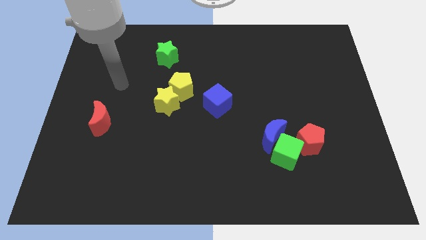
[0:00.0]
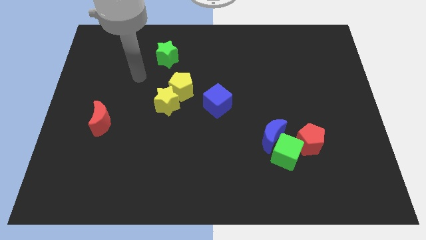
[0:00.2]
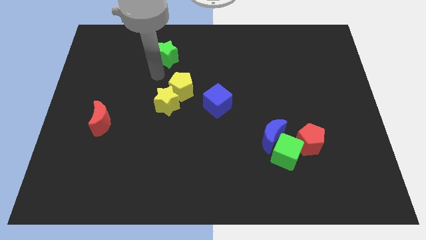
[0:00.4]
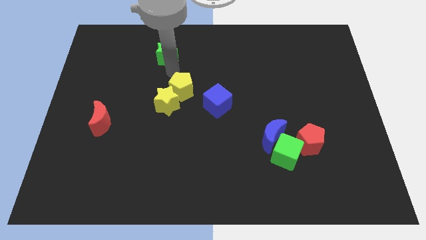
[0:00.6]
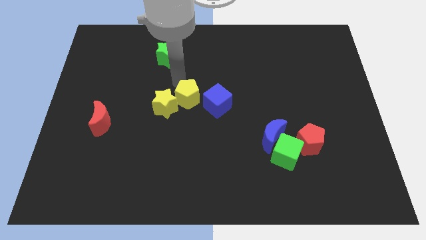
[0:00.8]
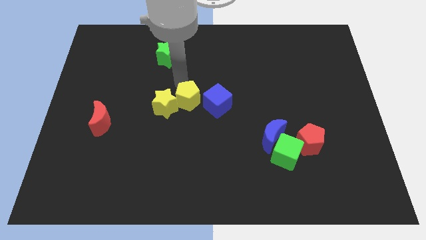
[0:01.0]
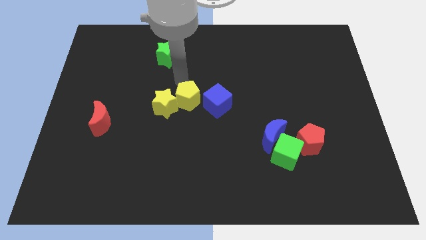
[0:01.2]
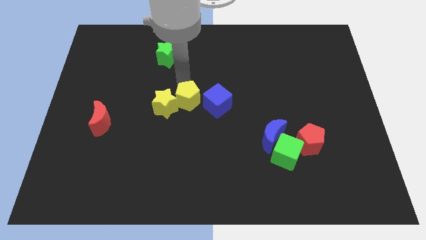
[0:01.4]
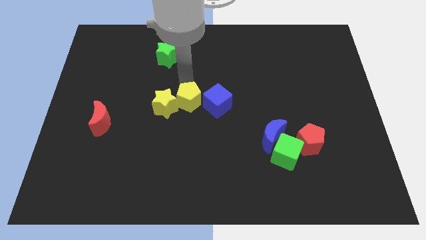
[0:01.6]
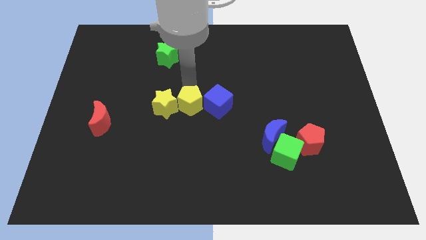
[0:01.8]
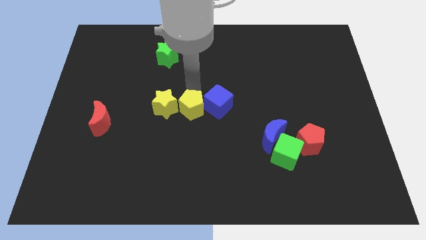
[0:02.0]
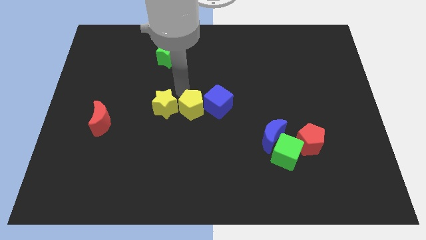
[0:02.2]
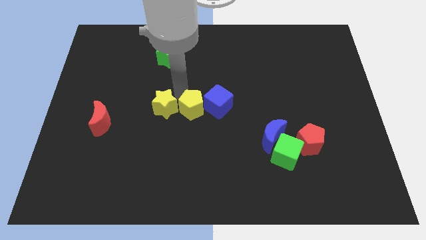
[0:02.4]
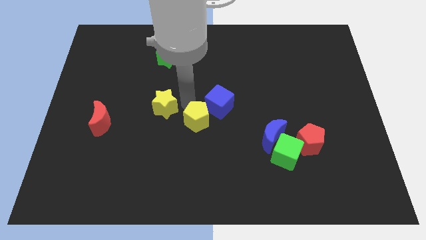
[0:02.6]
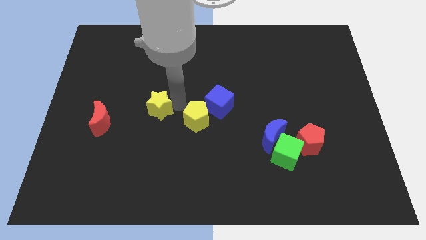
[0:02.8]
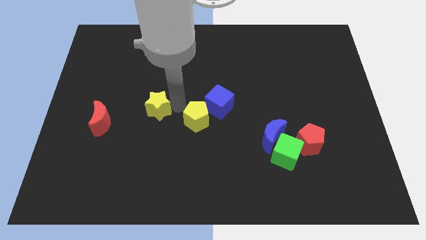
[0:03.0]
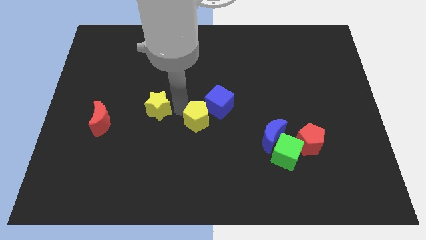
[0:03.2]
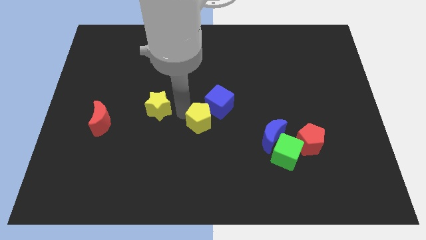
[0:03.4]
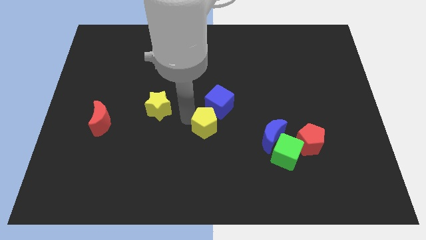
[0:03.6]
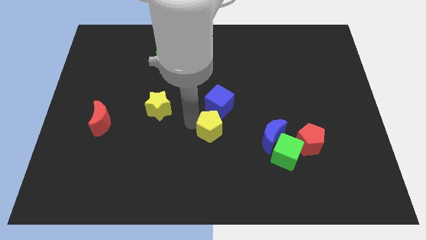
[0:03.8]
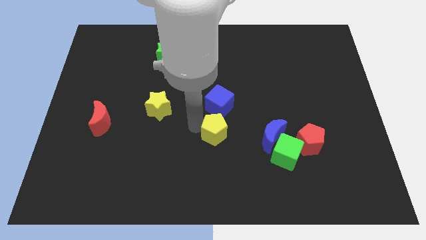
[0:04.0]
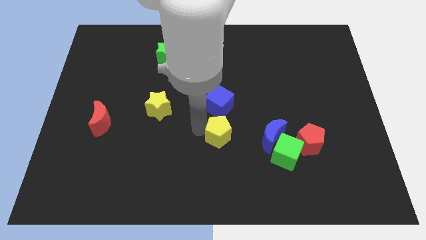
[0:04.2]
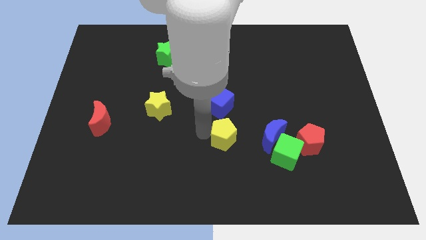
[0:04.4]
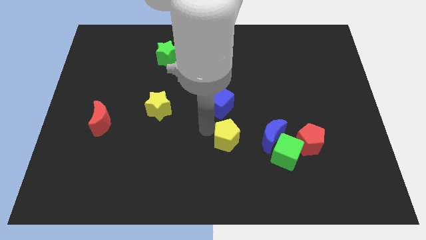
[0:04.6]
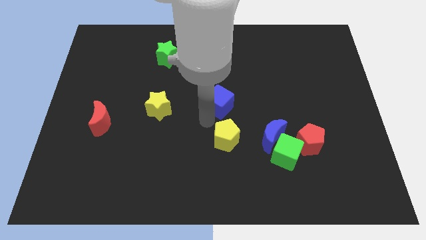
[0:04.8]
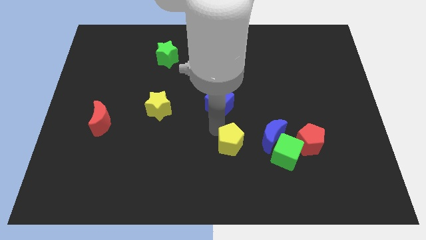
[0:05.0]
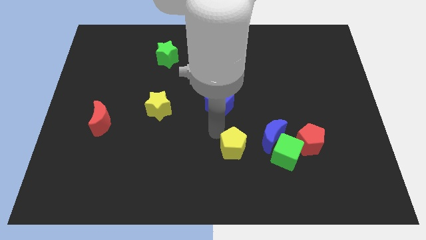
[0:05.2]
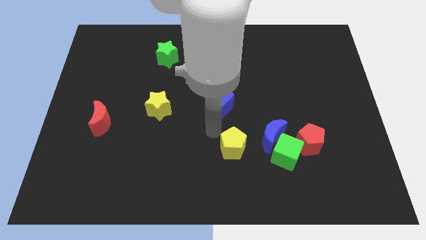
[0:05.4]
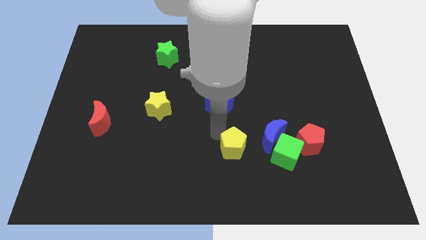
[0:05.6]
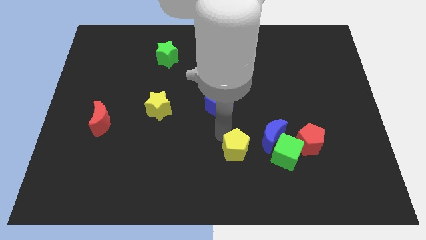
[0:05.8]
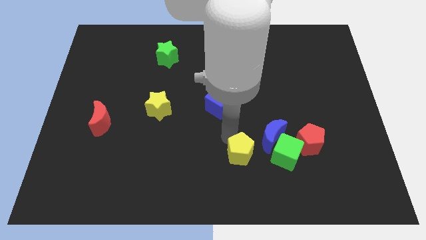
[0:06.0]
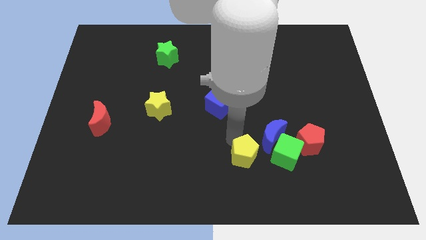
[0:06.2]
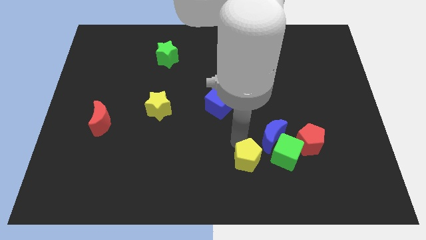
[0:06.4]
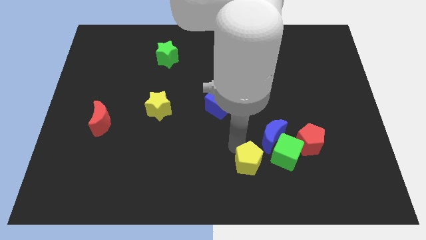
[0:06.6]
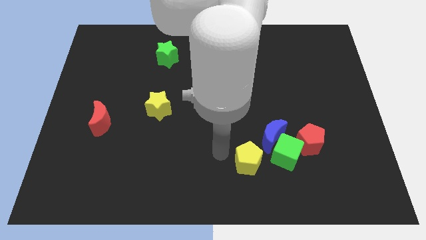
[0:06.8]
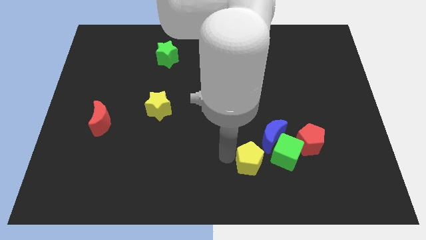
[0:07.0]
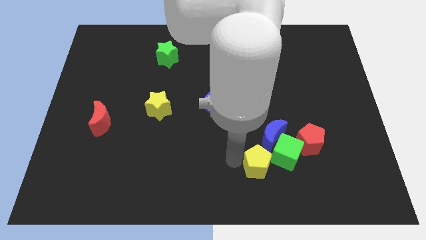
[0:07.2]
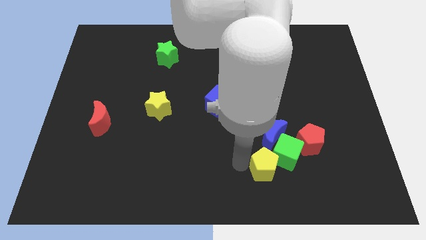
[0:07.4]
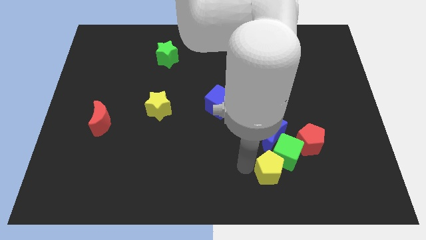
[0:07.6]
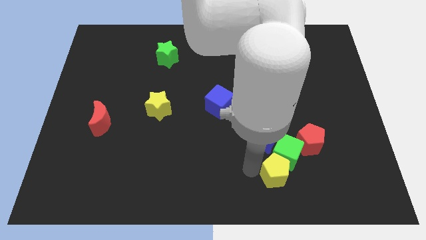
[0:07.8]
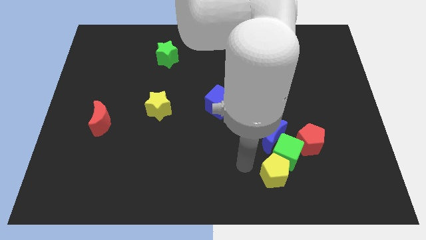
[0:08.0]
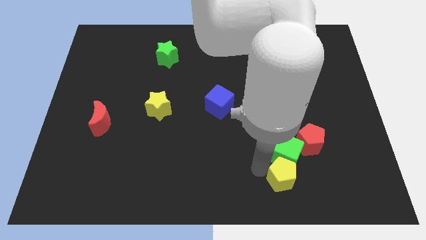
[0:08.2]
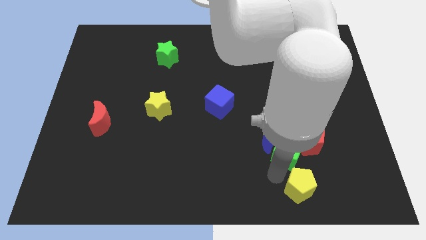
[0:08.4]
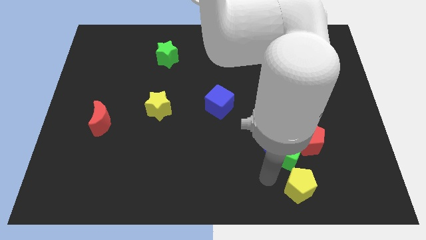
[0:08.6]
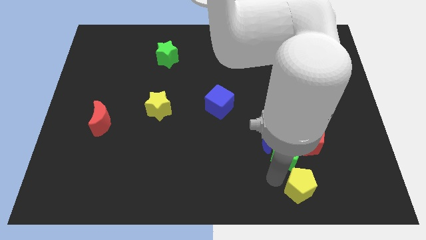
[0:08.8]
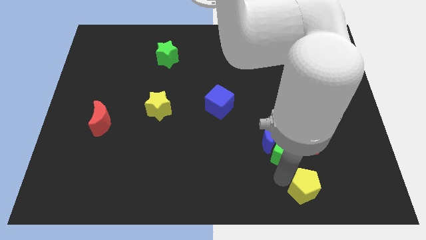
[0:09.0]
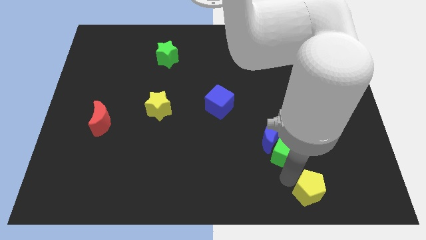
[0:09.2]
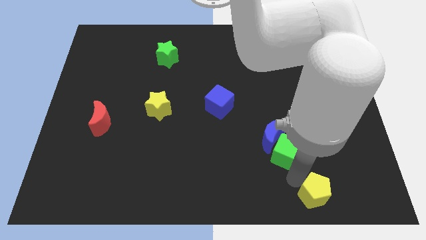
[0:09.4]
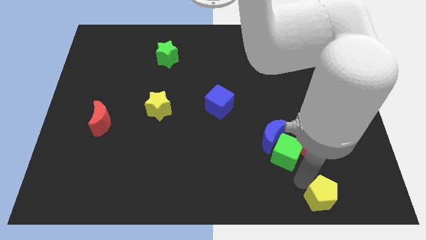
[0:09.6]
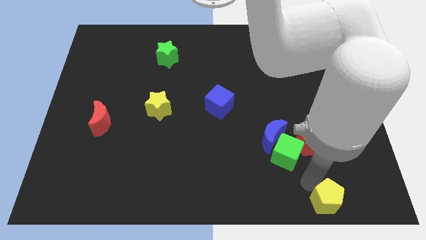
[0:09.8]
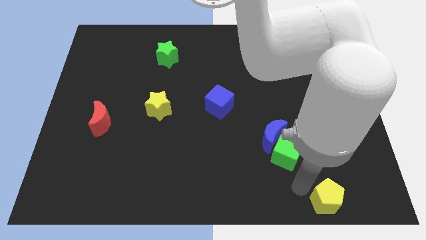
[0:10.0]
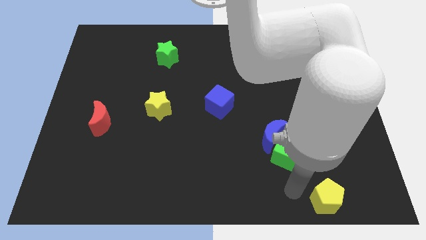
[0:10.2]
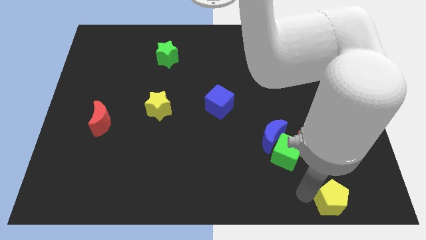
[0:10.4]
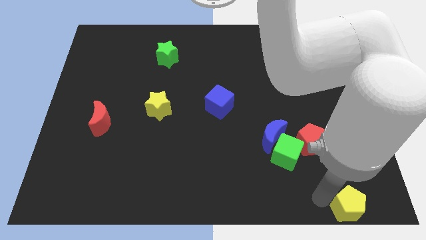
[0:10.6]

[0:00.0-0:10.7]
push the yellow pentagon to the bottom right of the board
